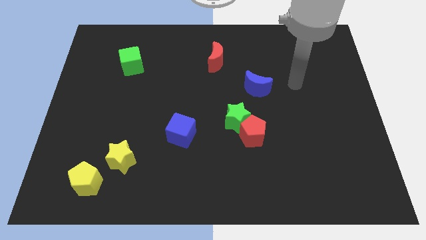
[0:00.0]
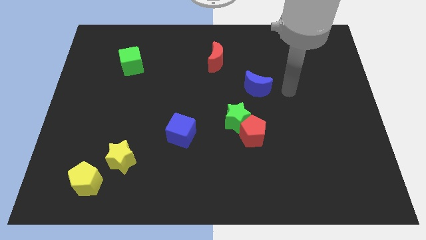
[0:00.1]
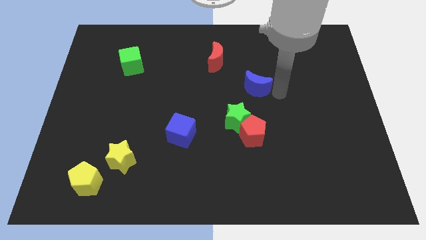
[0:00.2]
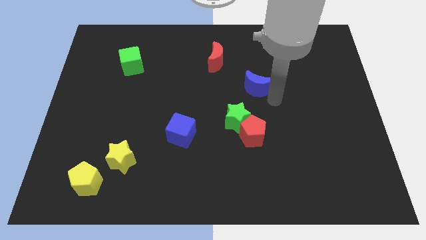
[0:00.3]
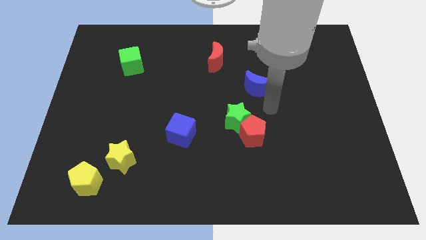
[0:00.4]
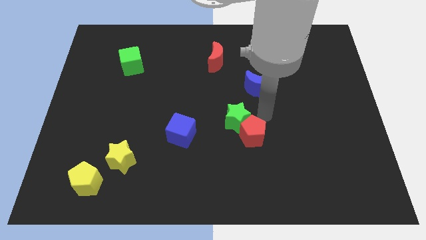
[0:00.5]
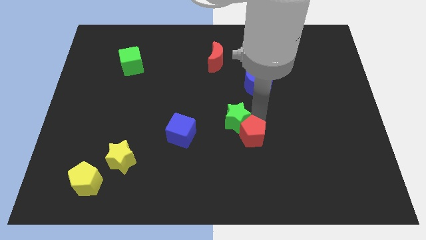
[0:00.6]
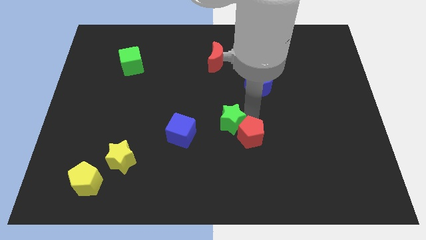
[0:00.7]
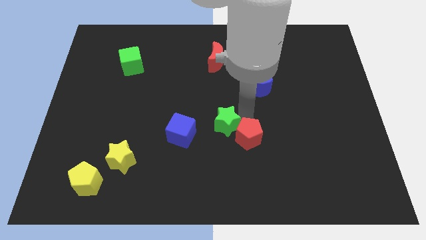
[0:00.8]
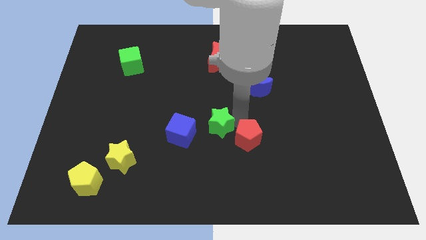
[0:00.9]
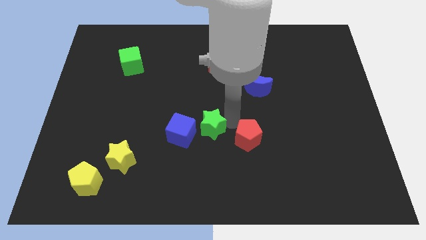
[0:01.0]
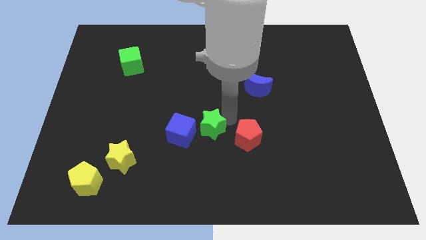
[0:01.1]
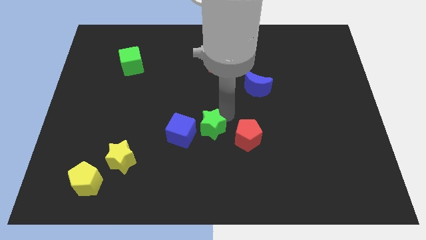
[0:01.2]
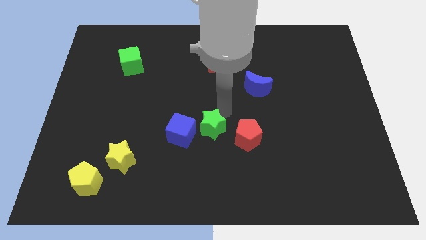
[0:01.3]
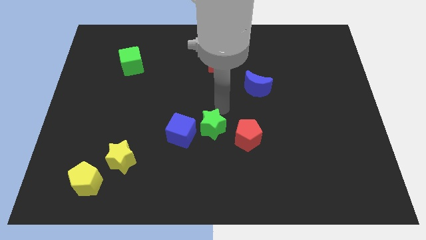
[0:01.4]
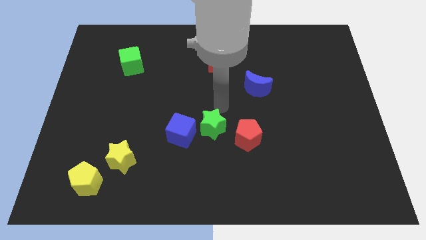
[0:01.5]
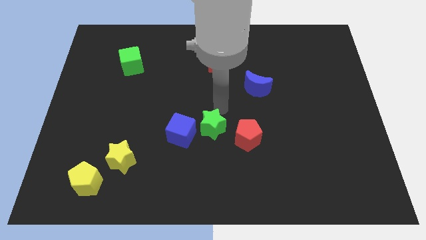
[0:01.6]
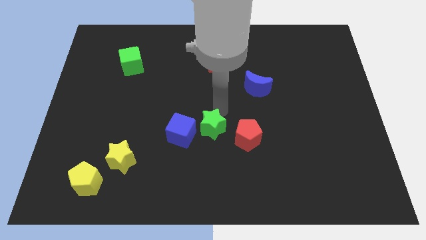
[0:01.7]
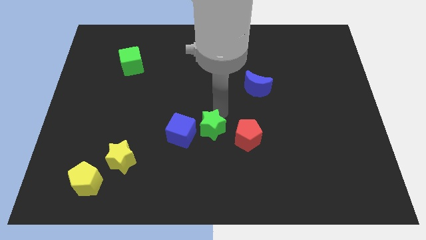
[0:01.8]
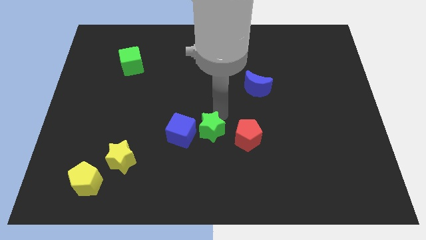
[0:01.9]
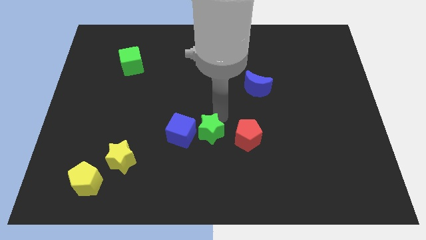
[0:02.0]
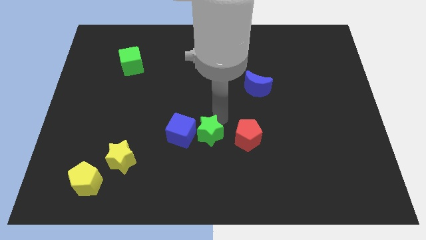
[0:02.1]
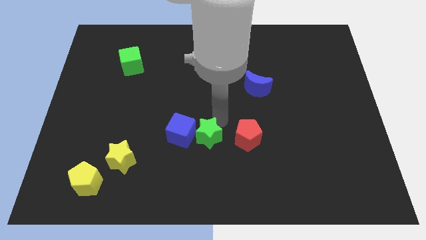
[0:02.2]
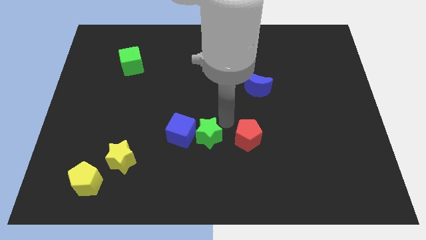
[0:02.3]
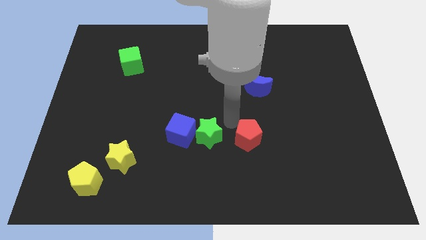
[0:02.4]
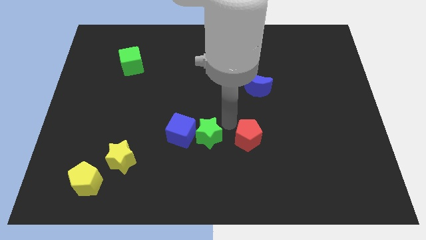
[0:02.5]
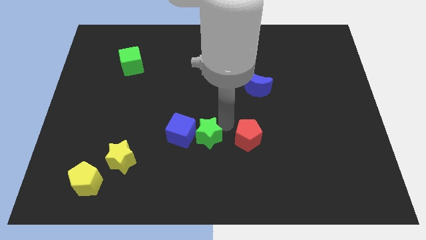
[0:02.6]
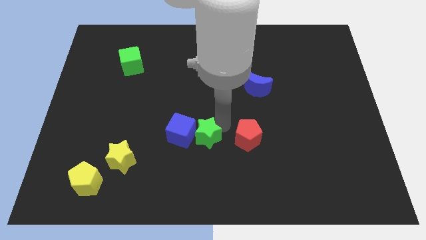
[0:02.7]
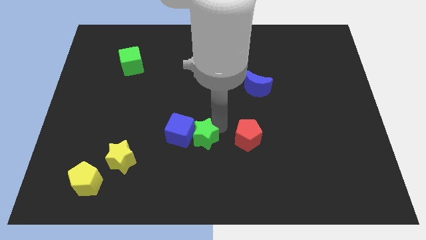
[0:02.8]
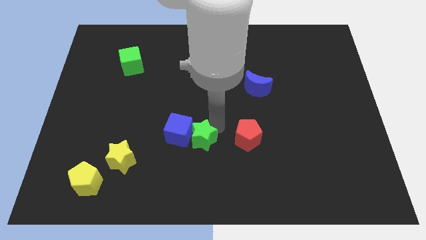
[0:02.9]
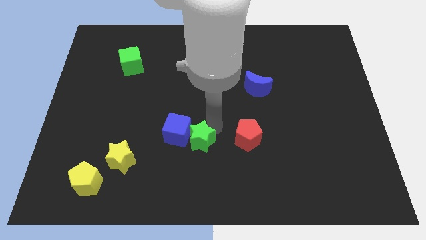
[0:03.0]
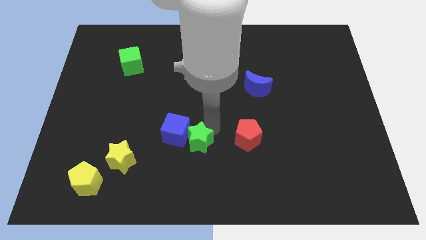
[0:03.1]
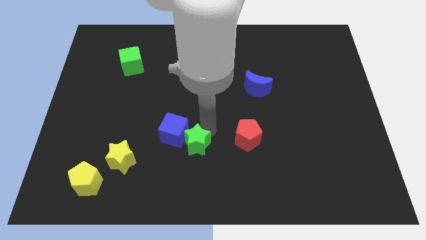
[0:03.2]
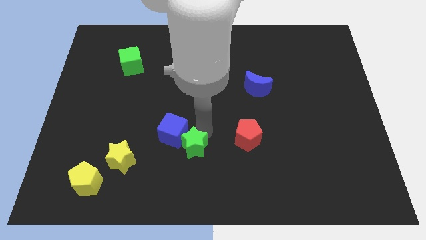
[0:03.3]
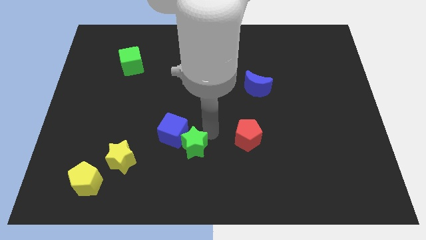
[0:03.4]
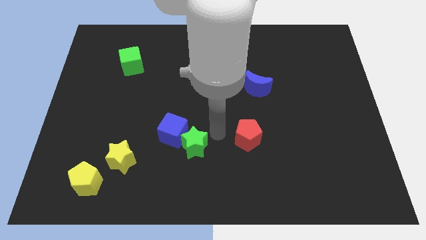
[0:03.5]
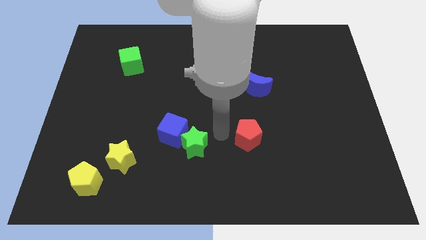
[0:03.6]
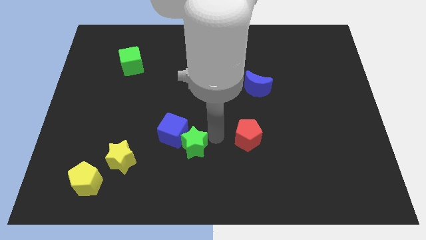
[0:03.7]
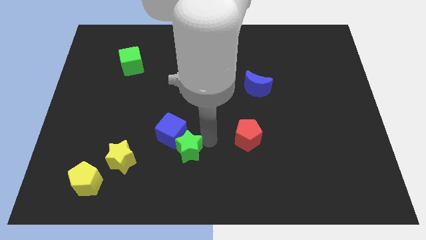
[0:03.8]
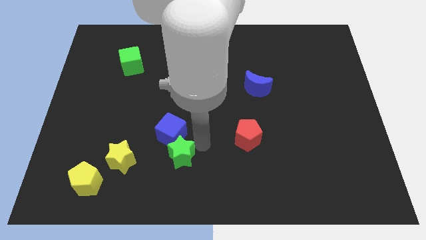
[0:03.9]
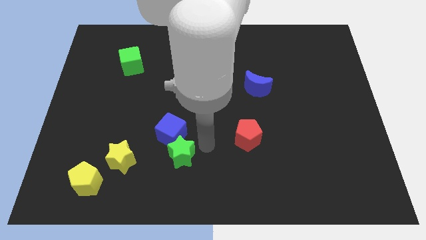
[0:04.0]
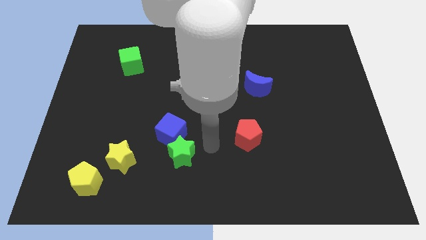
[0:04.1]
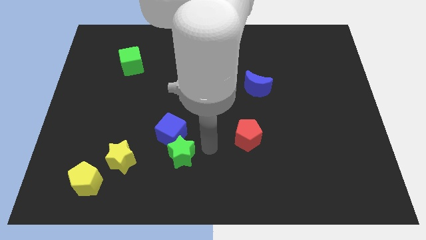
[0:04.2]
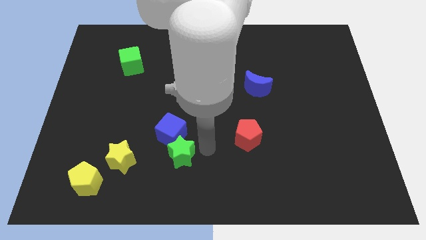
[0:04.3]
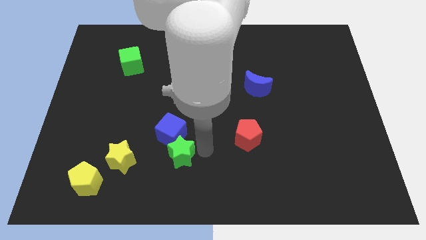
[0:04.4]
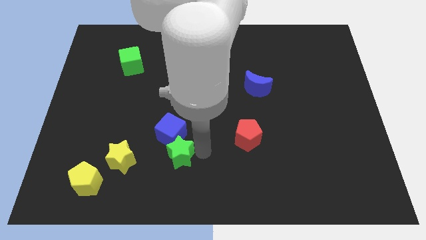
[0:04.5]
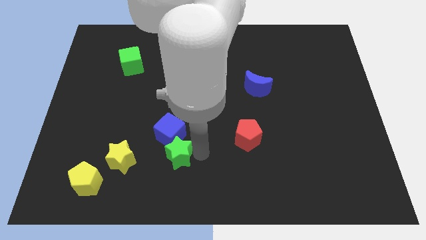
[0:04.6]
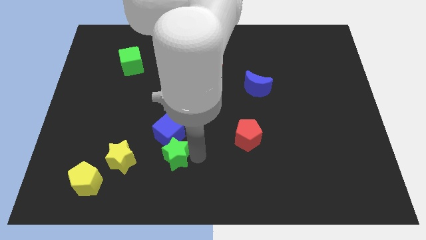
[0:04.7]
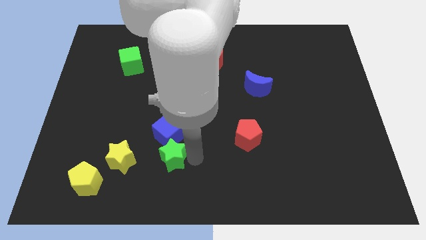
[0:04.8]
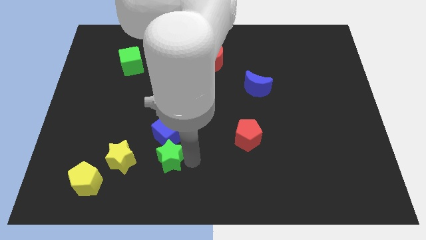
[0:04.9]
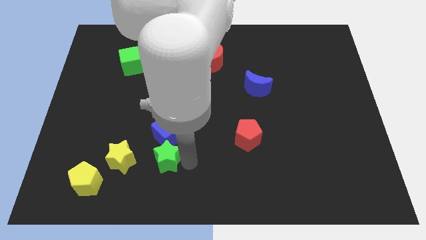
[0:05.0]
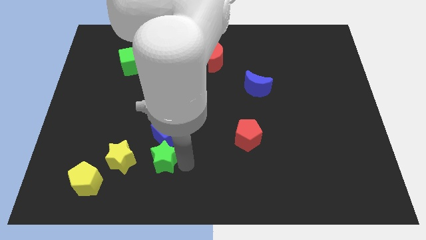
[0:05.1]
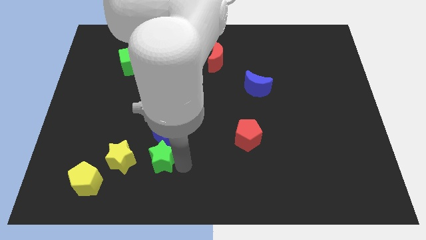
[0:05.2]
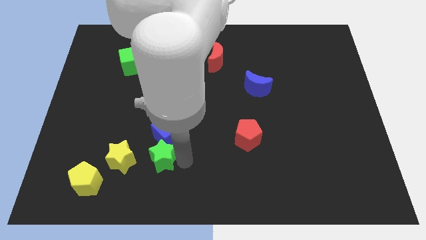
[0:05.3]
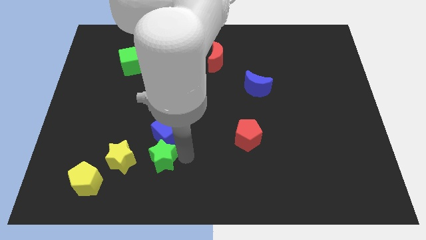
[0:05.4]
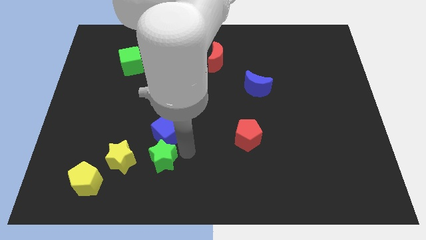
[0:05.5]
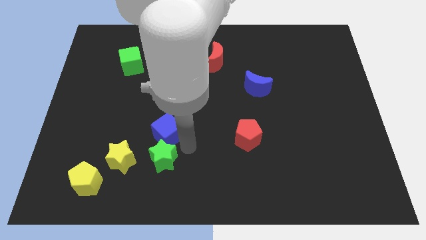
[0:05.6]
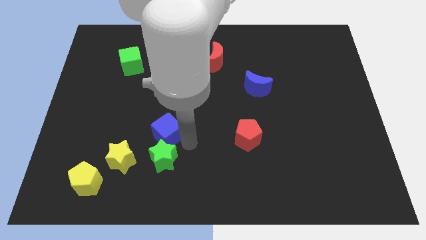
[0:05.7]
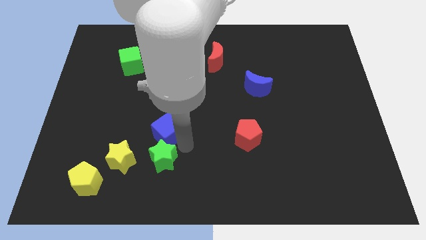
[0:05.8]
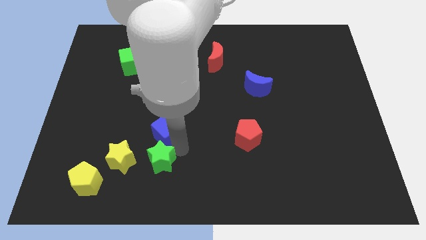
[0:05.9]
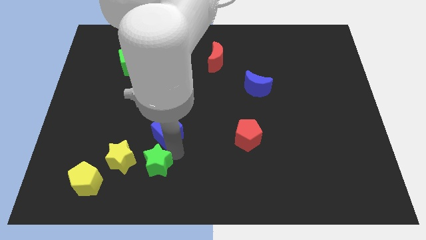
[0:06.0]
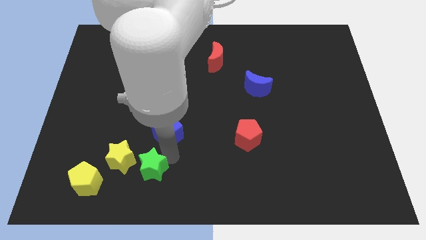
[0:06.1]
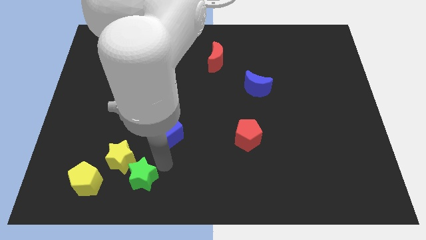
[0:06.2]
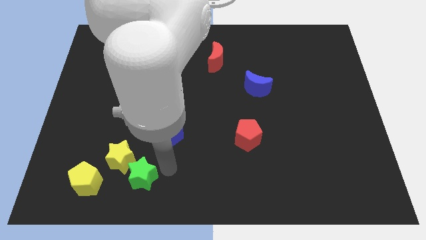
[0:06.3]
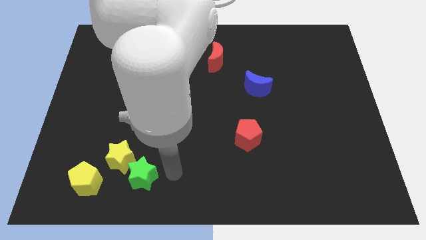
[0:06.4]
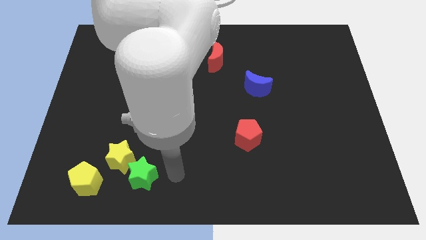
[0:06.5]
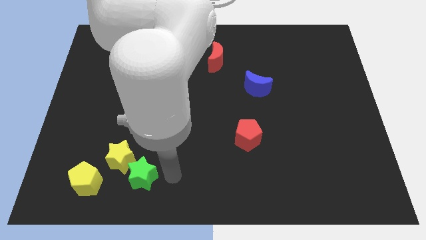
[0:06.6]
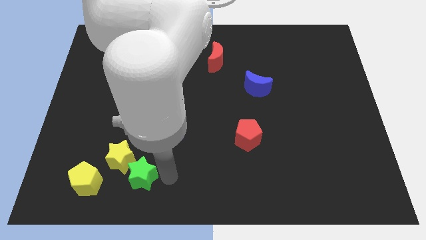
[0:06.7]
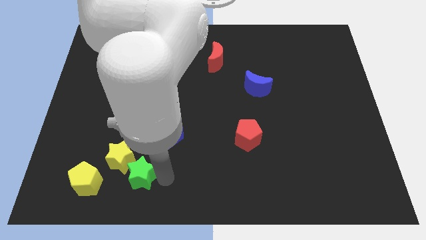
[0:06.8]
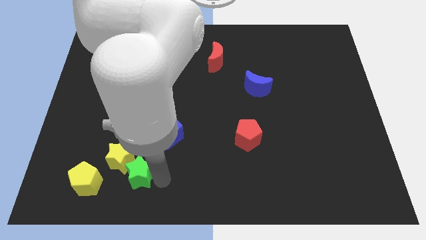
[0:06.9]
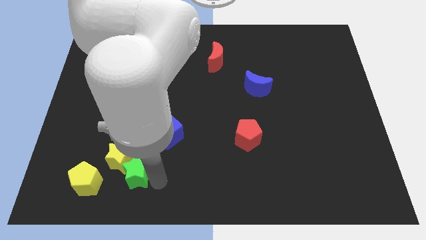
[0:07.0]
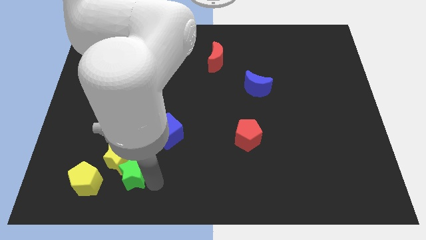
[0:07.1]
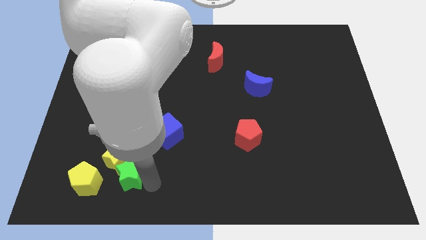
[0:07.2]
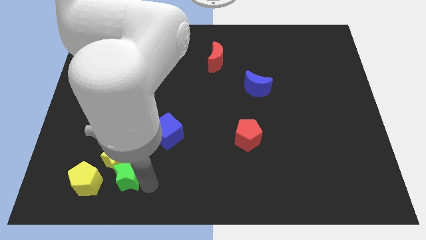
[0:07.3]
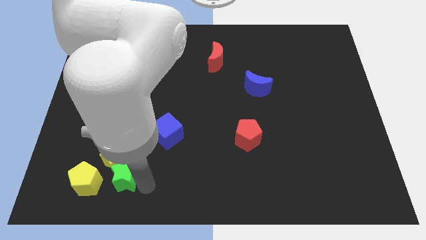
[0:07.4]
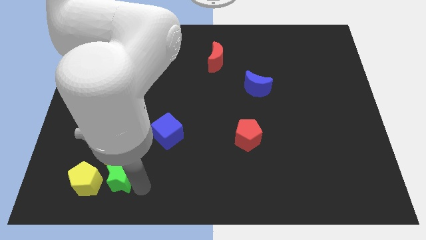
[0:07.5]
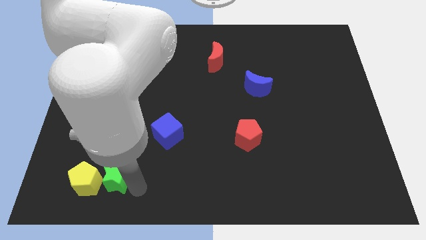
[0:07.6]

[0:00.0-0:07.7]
slide the green star to the yellow pentagon
